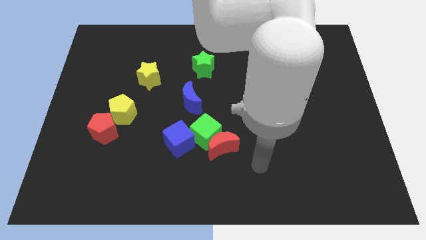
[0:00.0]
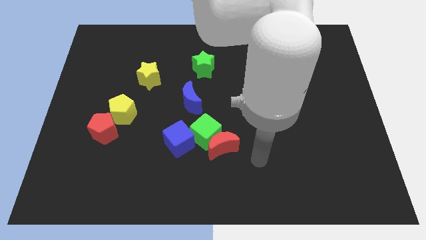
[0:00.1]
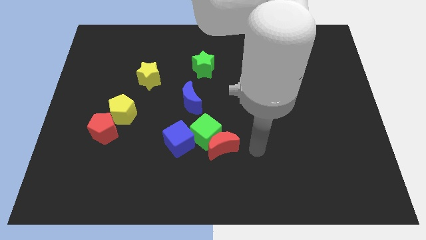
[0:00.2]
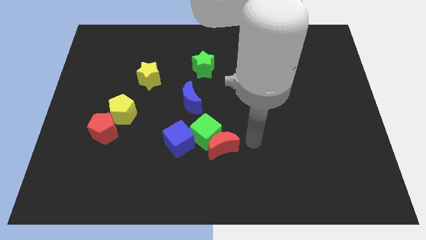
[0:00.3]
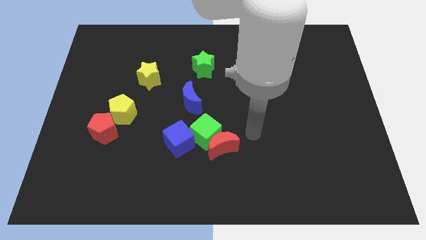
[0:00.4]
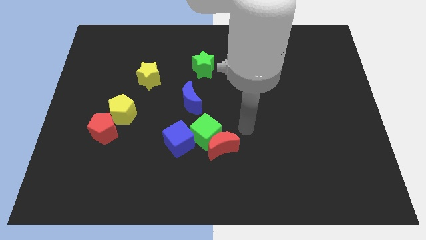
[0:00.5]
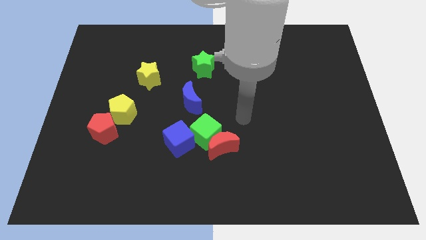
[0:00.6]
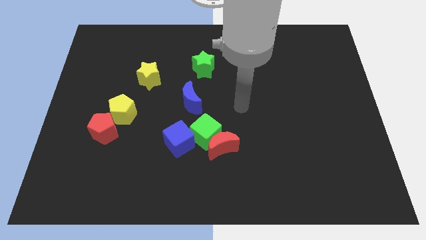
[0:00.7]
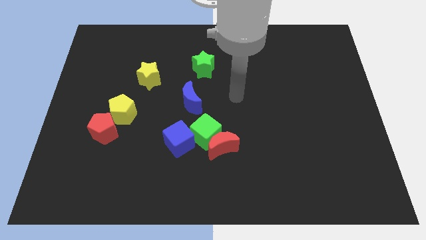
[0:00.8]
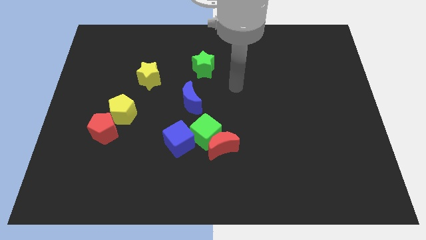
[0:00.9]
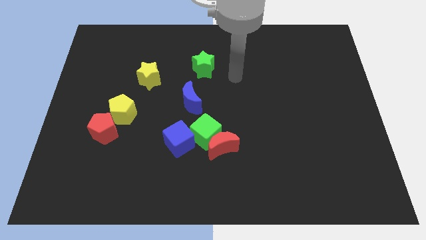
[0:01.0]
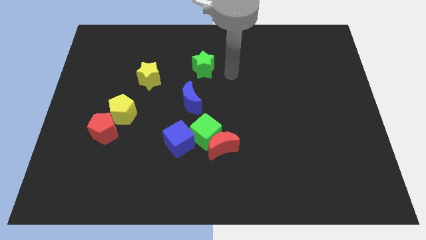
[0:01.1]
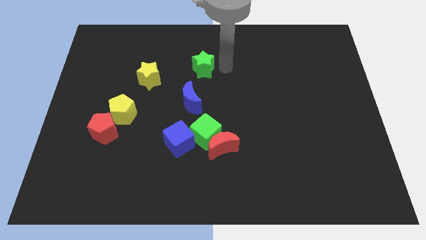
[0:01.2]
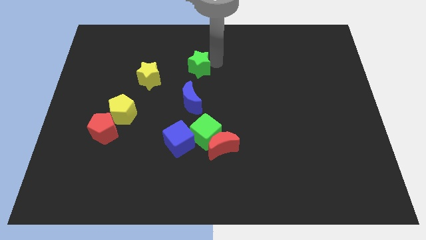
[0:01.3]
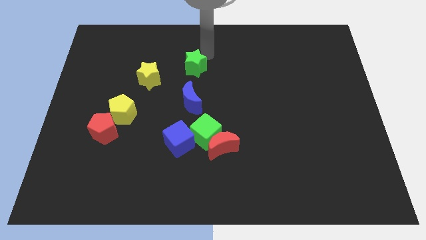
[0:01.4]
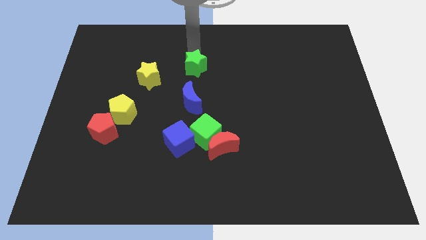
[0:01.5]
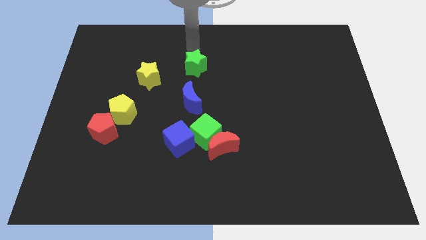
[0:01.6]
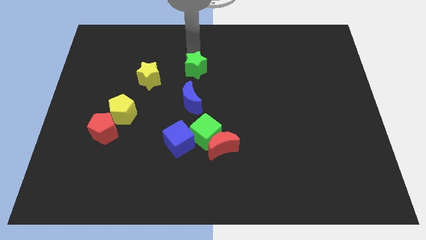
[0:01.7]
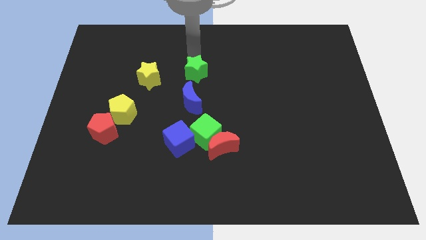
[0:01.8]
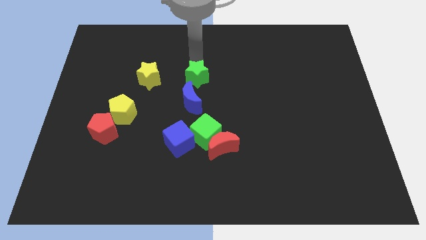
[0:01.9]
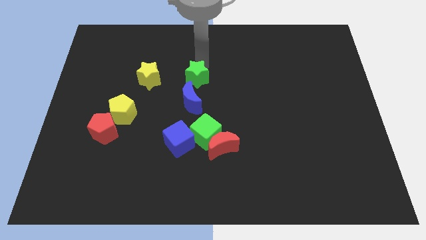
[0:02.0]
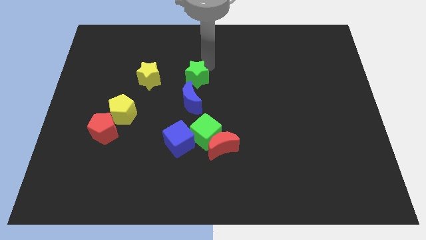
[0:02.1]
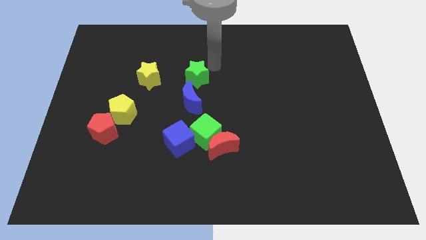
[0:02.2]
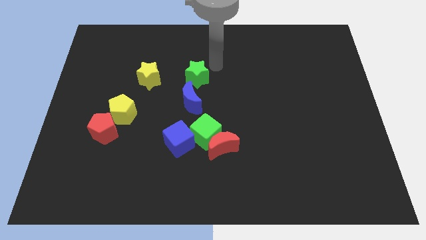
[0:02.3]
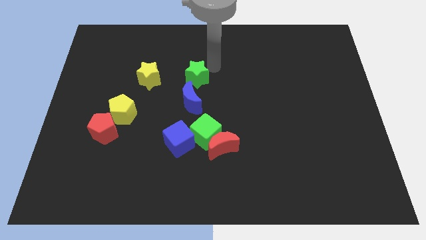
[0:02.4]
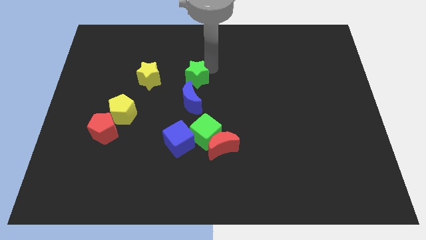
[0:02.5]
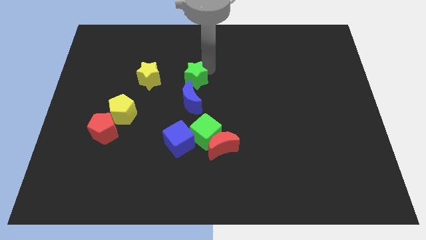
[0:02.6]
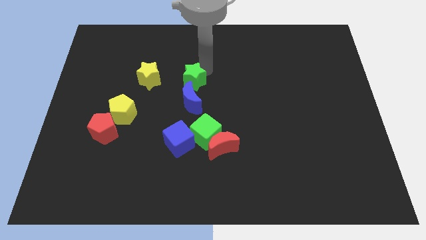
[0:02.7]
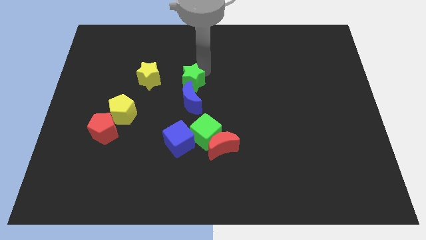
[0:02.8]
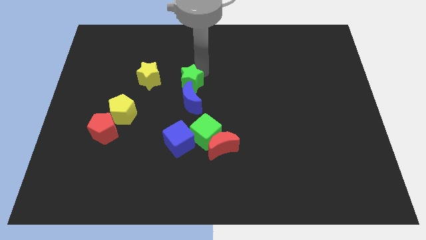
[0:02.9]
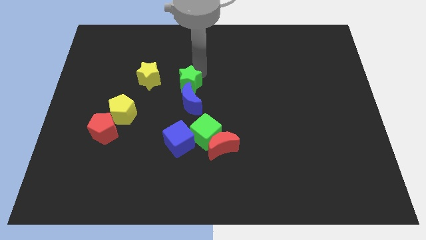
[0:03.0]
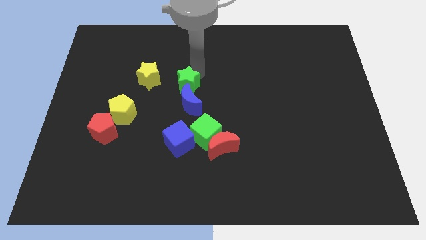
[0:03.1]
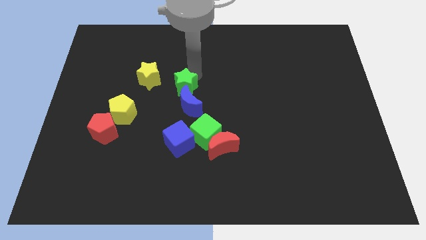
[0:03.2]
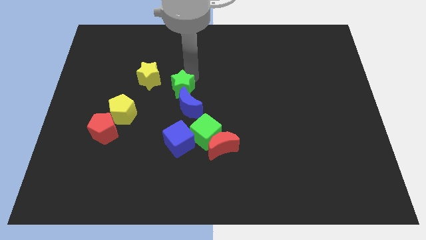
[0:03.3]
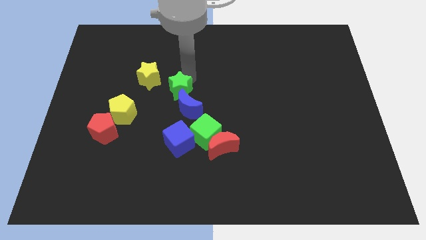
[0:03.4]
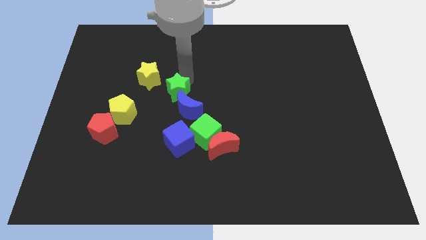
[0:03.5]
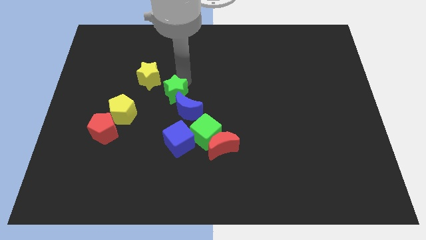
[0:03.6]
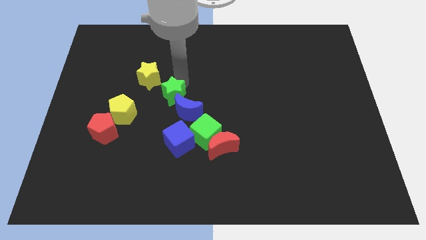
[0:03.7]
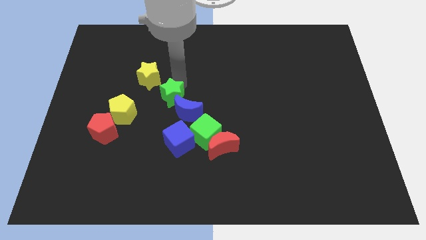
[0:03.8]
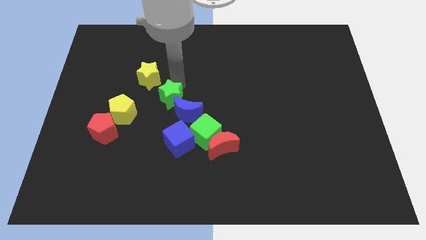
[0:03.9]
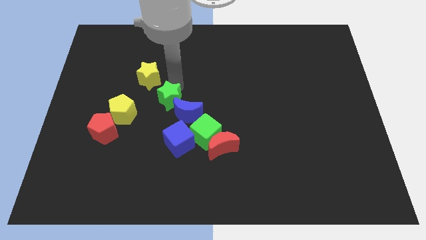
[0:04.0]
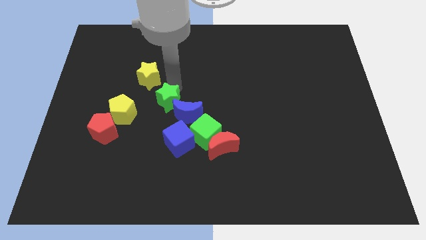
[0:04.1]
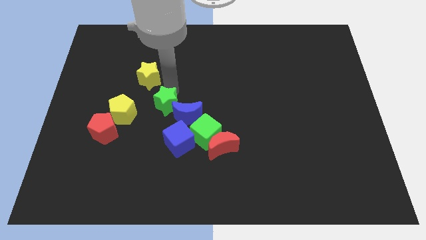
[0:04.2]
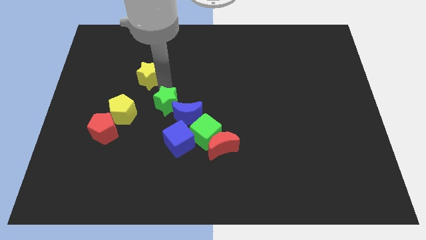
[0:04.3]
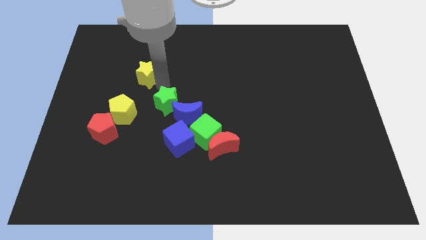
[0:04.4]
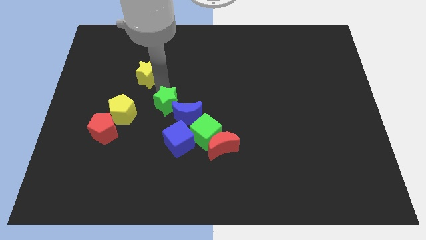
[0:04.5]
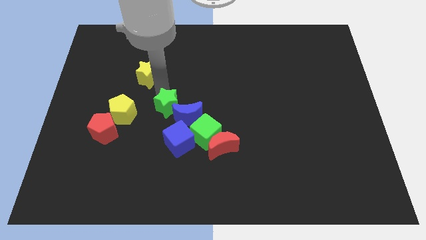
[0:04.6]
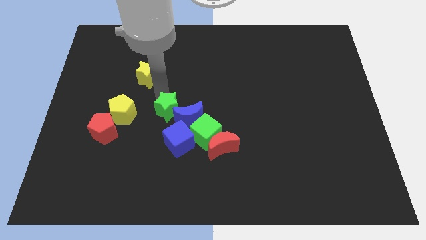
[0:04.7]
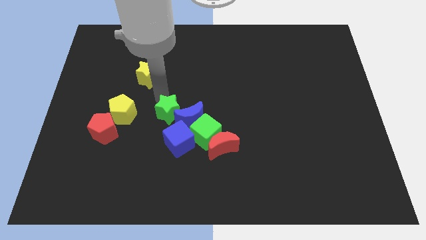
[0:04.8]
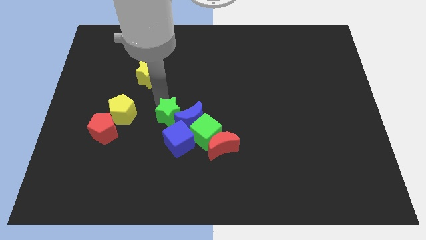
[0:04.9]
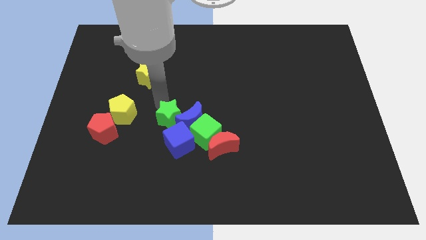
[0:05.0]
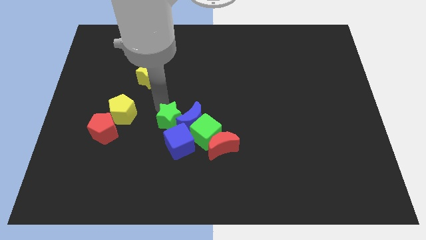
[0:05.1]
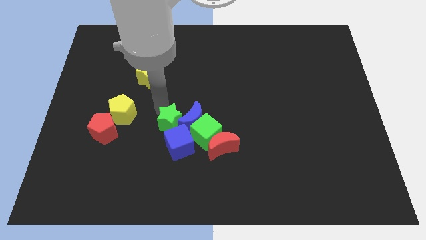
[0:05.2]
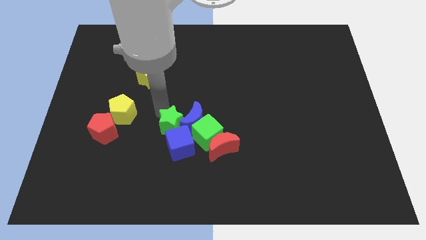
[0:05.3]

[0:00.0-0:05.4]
slide the green star towards the blue cube

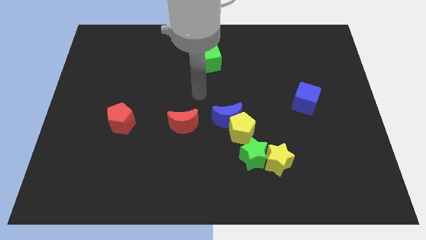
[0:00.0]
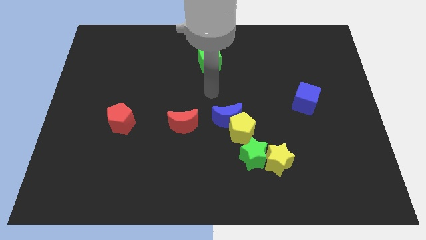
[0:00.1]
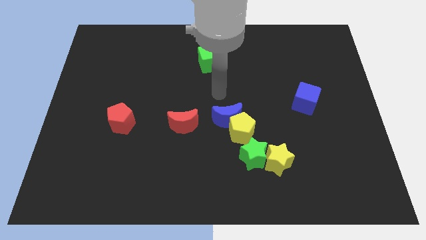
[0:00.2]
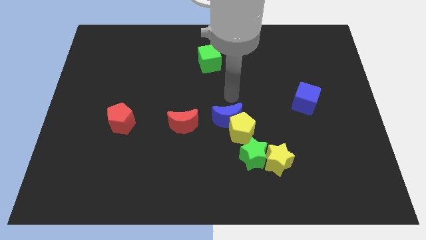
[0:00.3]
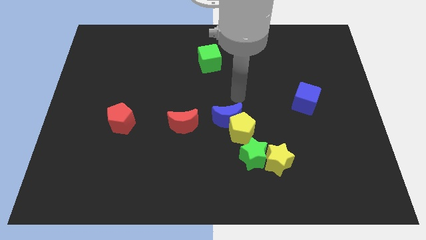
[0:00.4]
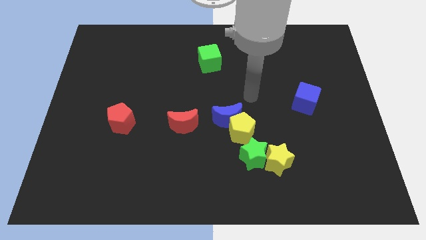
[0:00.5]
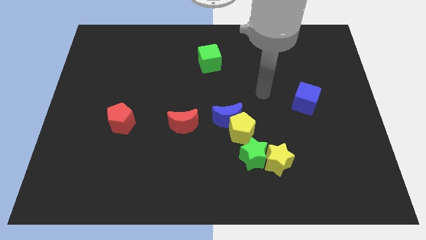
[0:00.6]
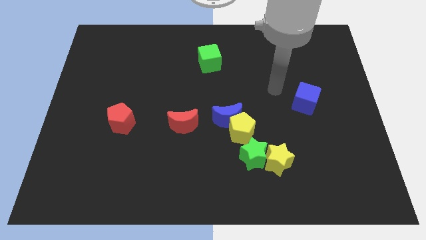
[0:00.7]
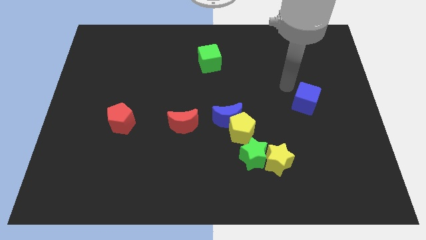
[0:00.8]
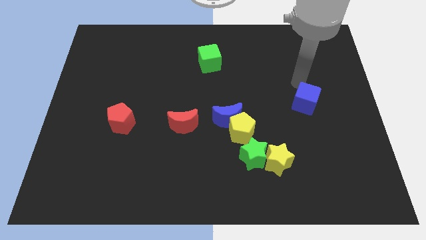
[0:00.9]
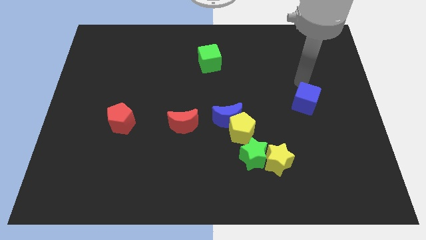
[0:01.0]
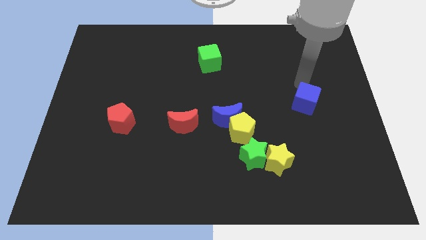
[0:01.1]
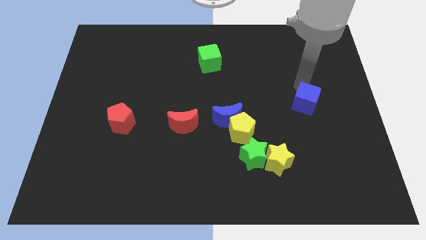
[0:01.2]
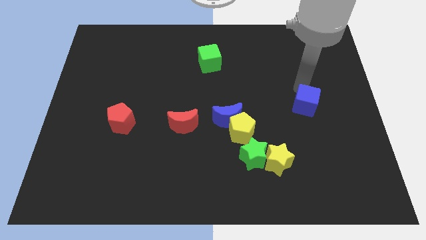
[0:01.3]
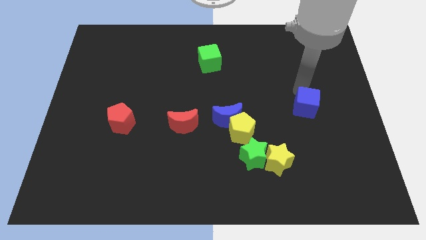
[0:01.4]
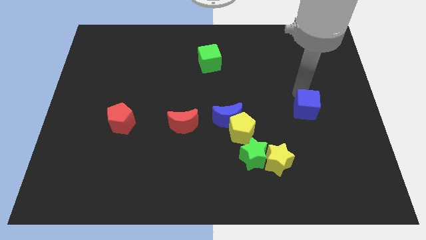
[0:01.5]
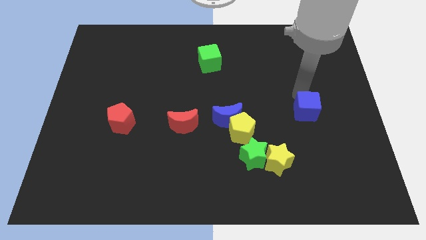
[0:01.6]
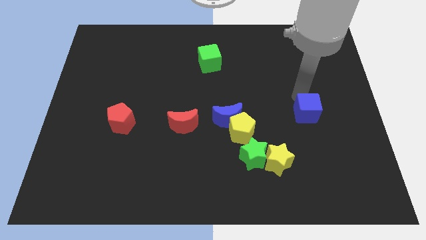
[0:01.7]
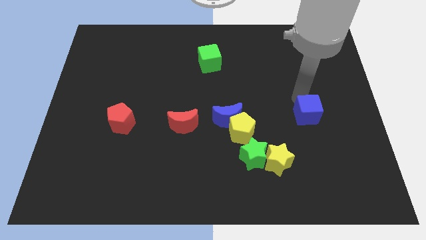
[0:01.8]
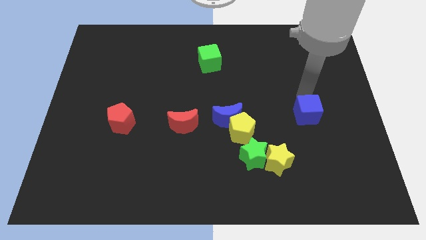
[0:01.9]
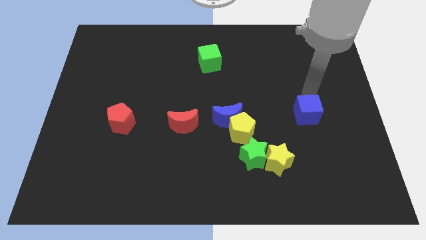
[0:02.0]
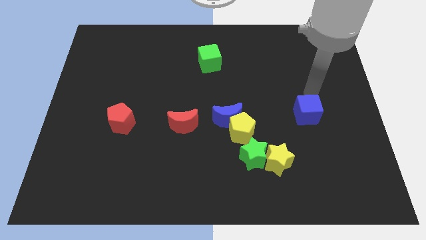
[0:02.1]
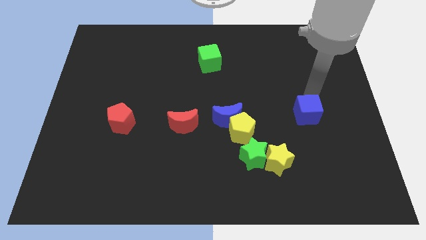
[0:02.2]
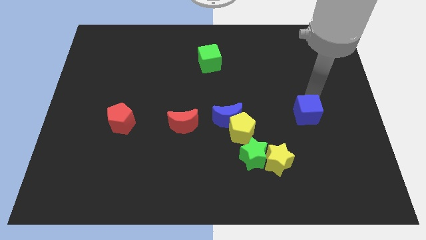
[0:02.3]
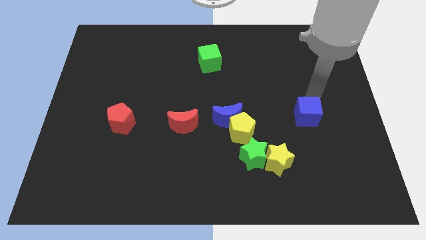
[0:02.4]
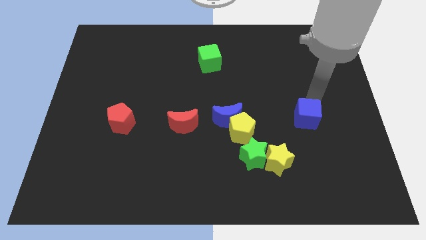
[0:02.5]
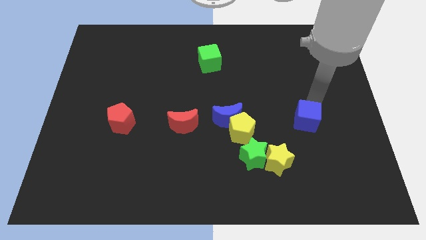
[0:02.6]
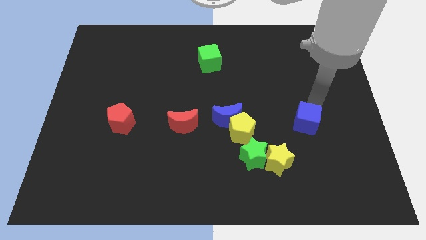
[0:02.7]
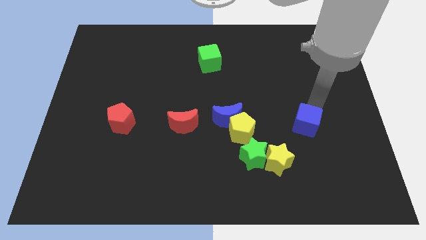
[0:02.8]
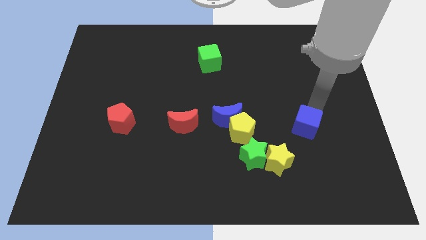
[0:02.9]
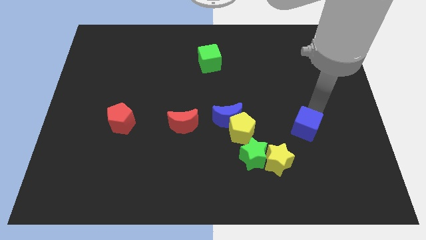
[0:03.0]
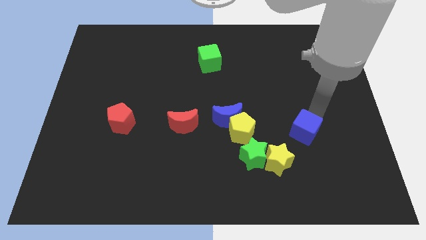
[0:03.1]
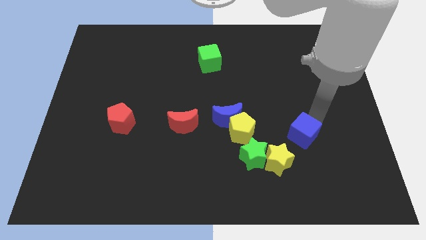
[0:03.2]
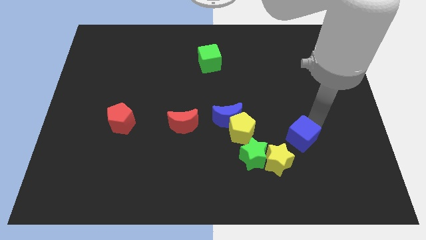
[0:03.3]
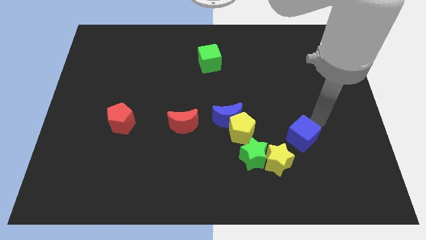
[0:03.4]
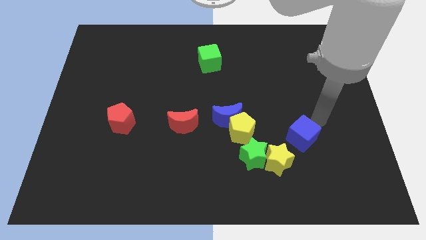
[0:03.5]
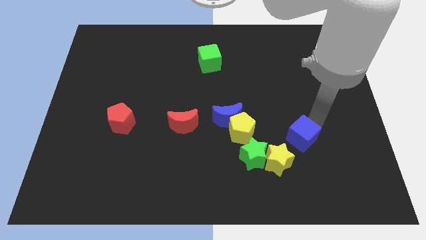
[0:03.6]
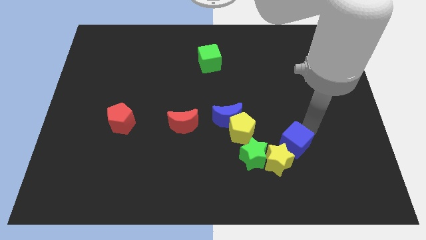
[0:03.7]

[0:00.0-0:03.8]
push the blue cube to the yellow star
